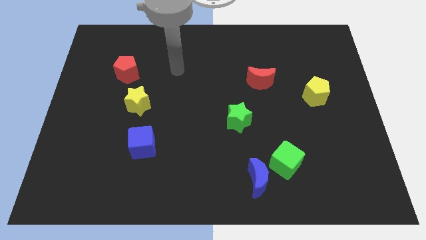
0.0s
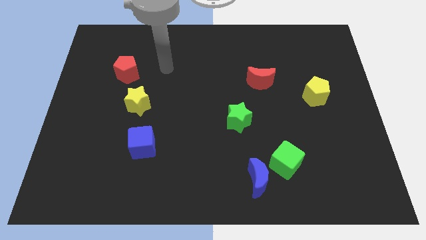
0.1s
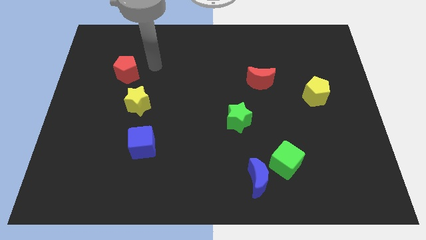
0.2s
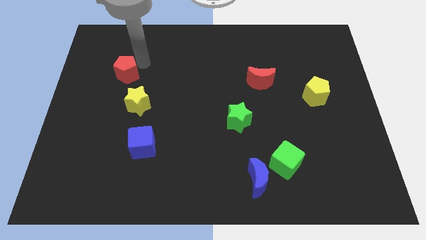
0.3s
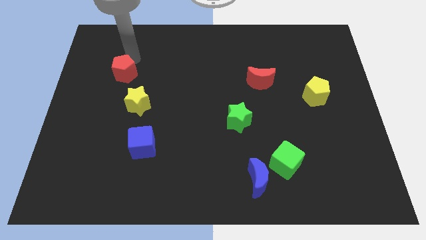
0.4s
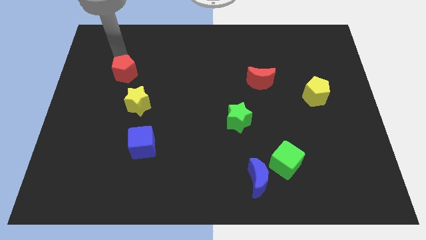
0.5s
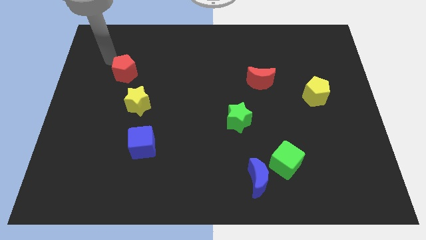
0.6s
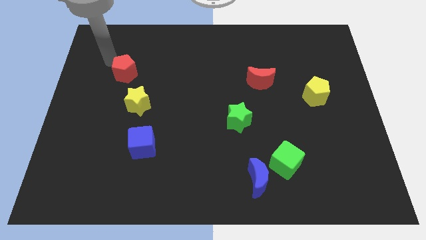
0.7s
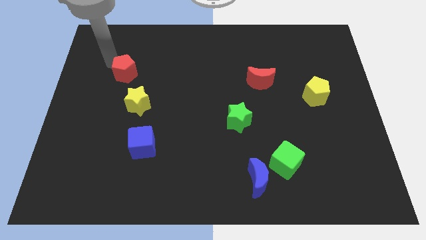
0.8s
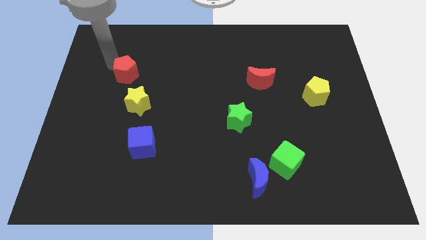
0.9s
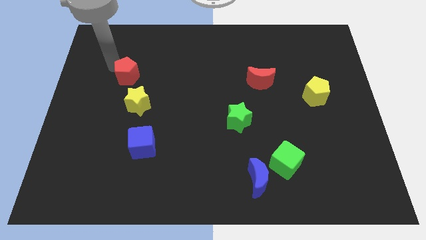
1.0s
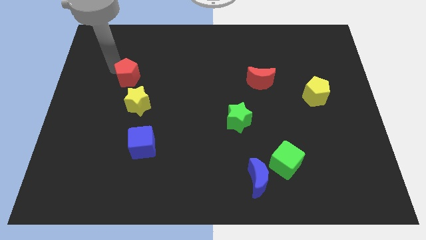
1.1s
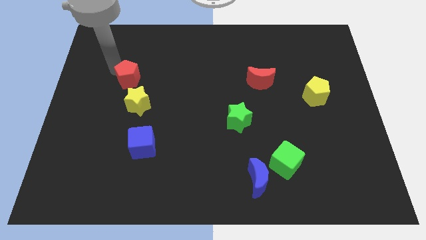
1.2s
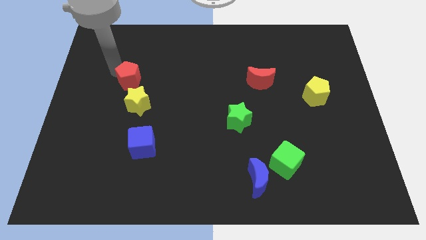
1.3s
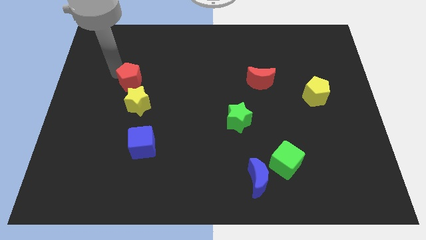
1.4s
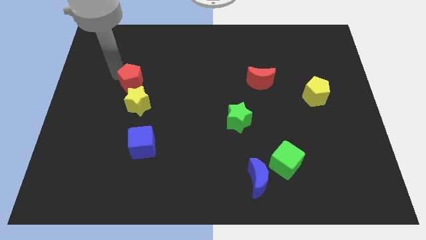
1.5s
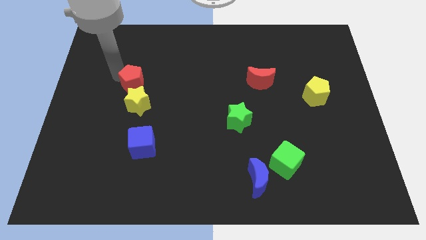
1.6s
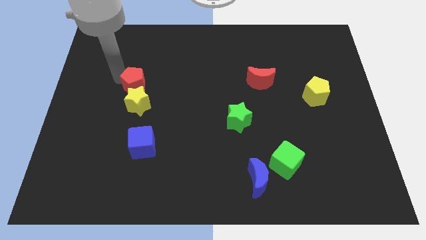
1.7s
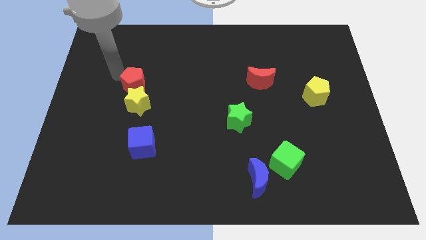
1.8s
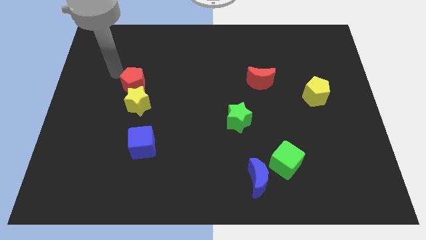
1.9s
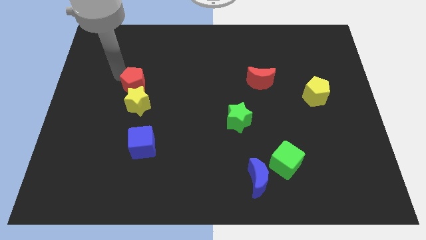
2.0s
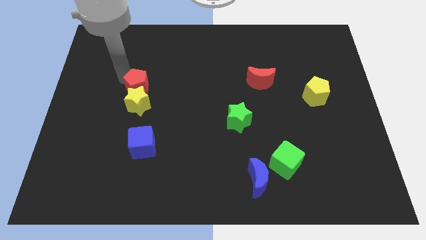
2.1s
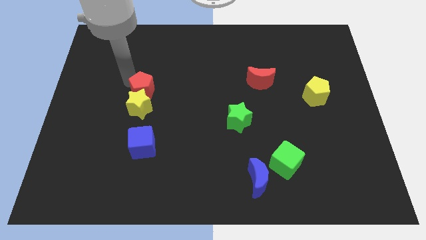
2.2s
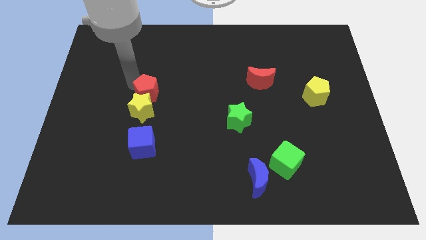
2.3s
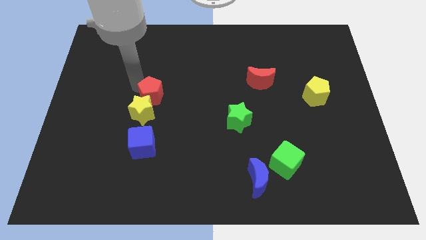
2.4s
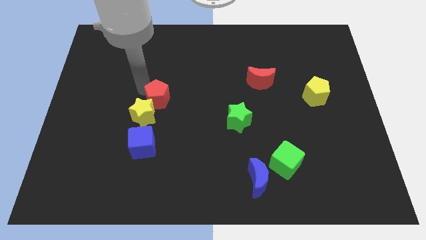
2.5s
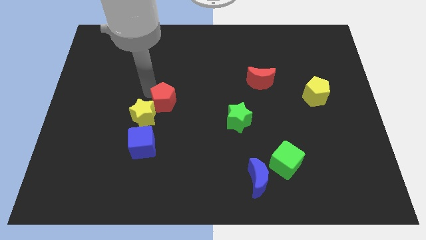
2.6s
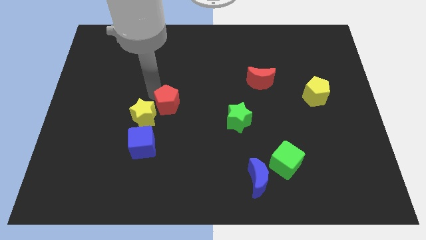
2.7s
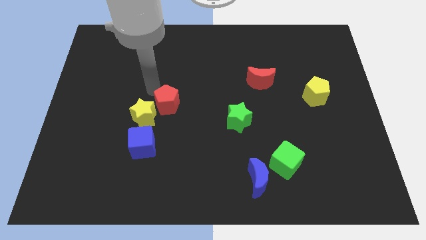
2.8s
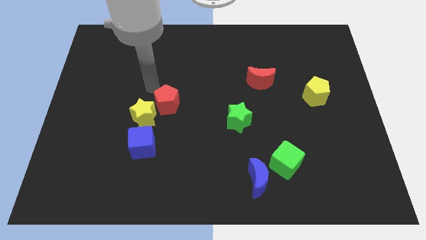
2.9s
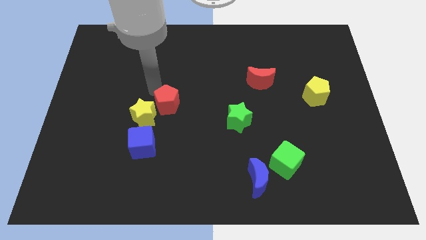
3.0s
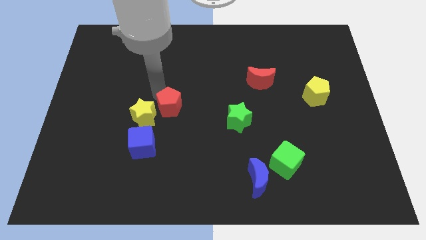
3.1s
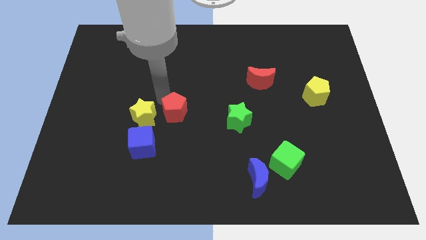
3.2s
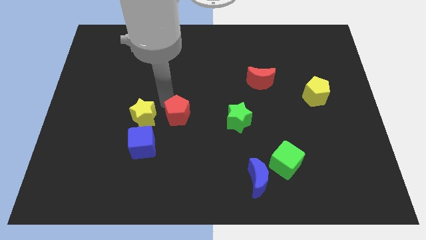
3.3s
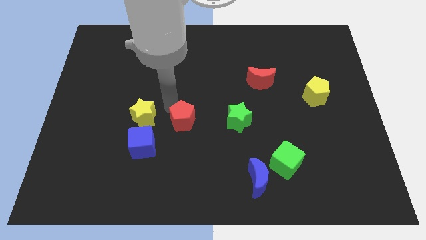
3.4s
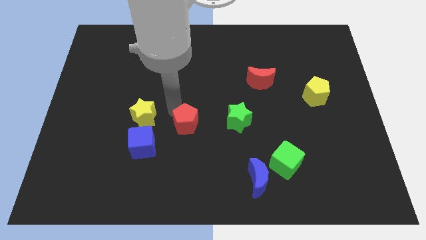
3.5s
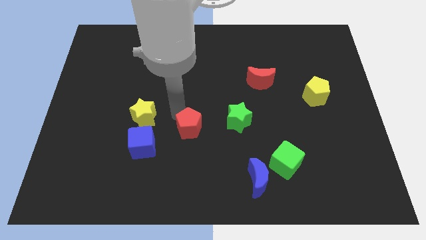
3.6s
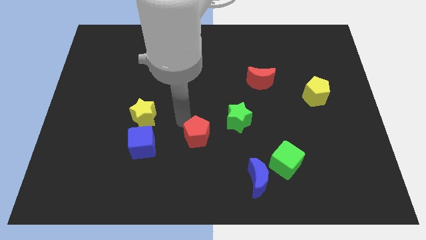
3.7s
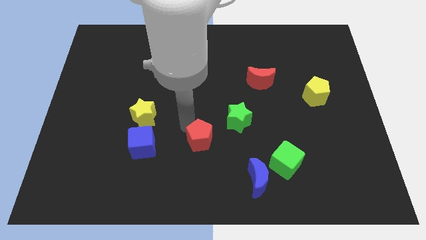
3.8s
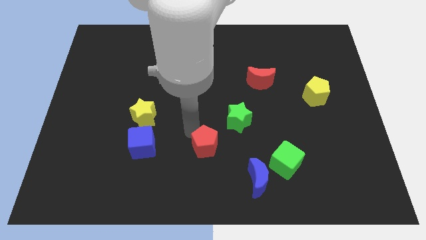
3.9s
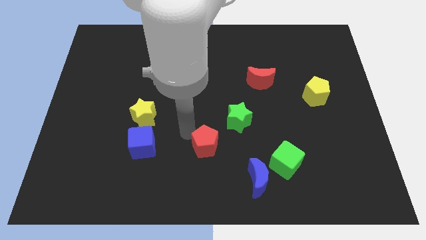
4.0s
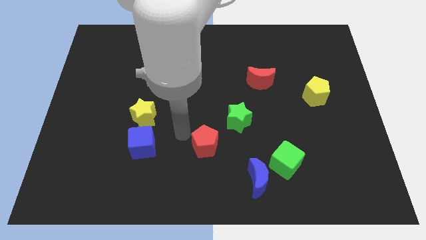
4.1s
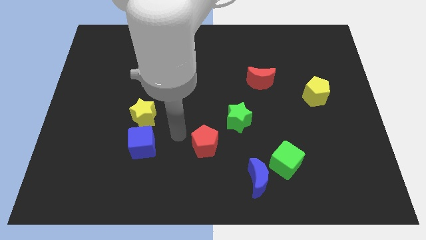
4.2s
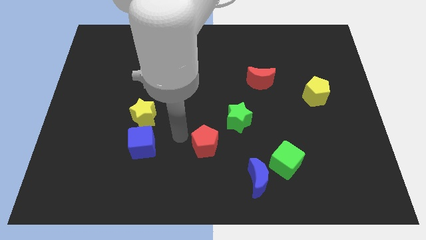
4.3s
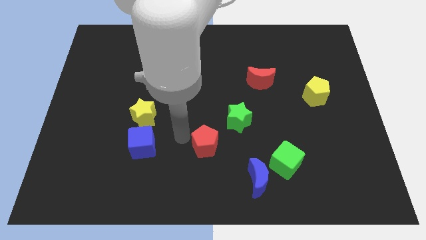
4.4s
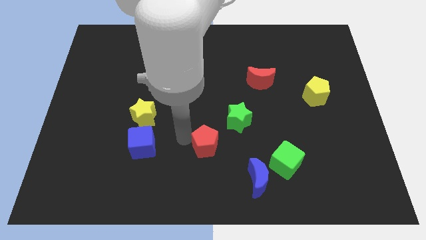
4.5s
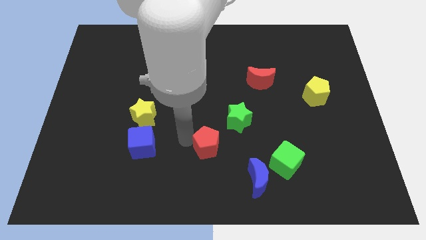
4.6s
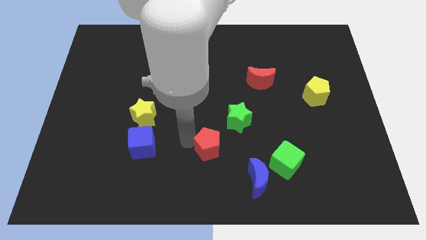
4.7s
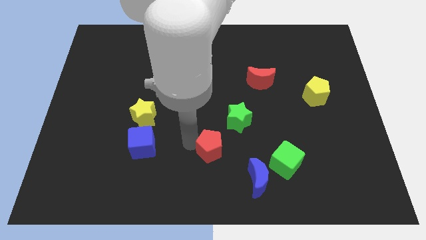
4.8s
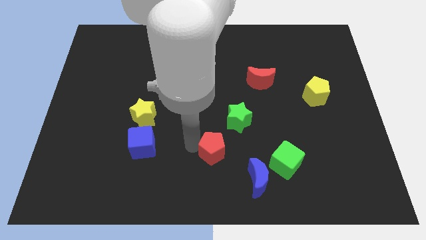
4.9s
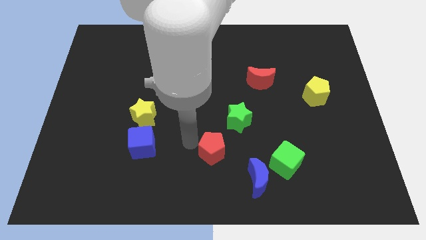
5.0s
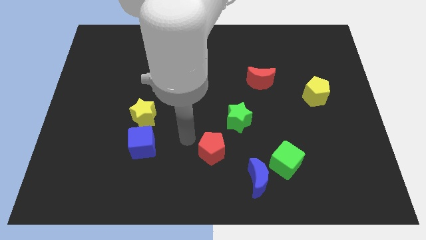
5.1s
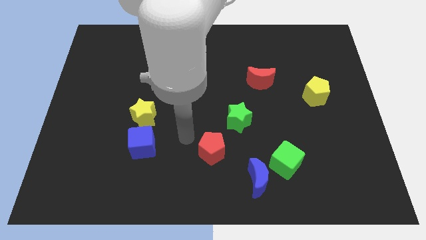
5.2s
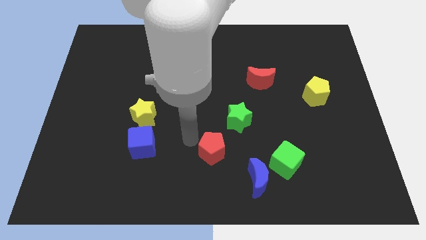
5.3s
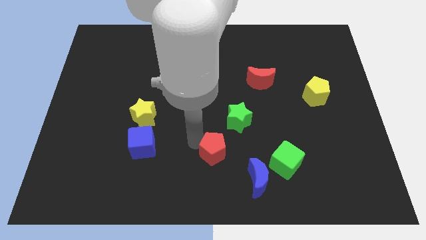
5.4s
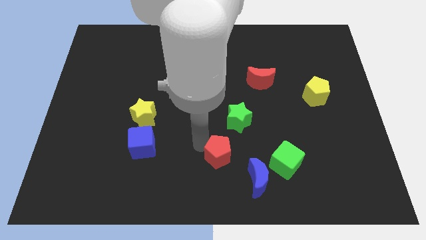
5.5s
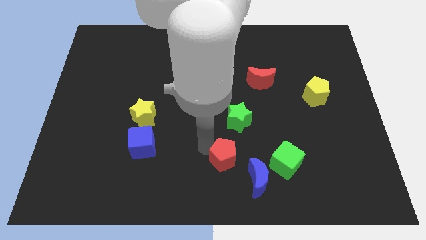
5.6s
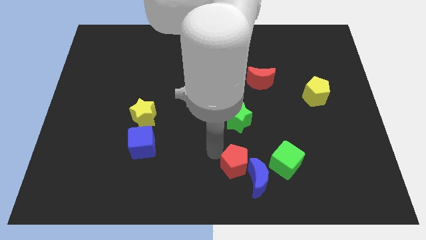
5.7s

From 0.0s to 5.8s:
push the red pentagon close to the blue moon
